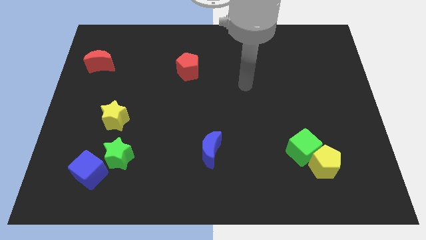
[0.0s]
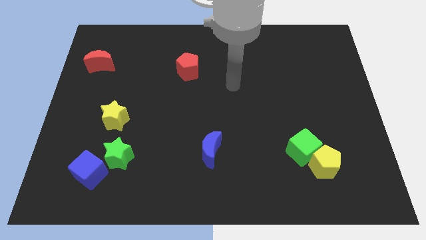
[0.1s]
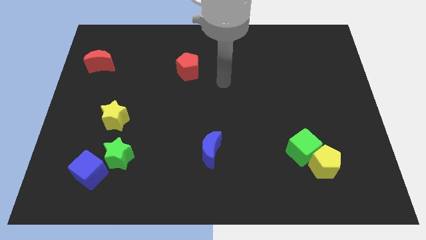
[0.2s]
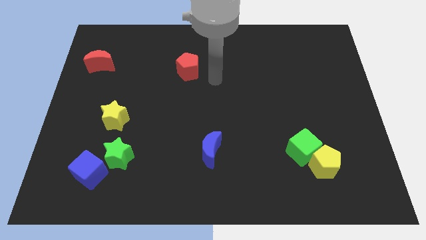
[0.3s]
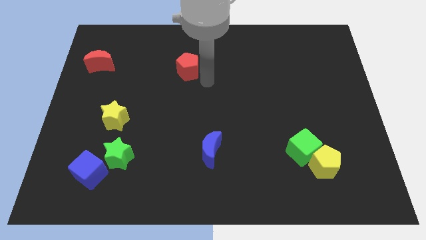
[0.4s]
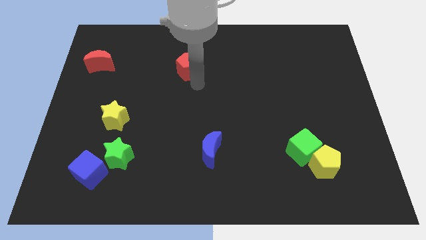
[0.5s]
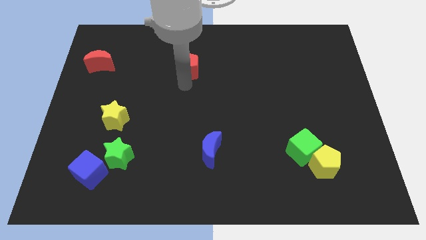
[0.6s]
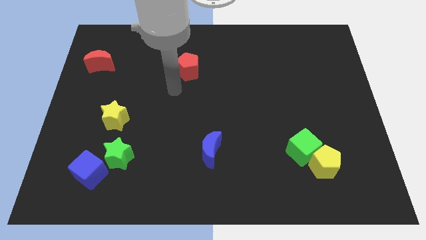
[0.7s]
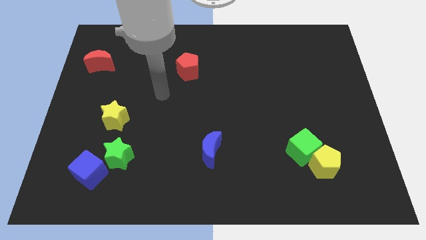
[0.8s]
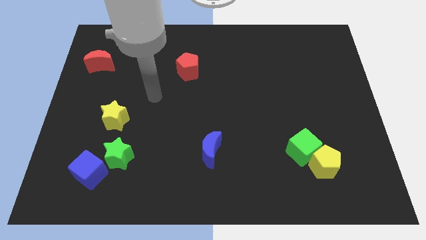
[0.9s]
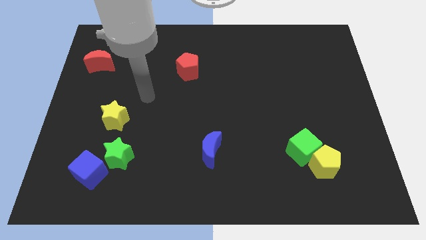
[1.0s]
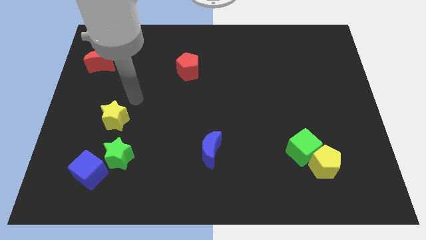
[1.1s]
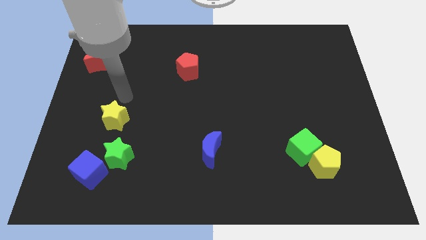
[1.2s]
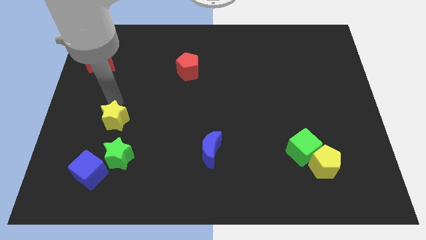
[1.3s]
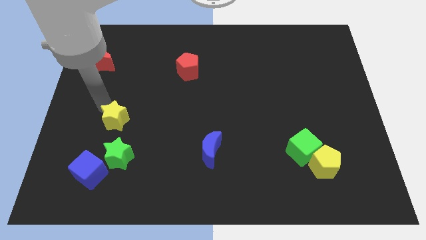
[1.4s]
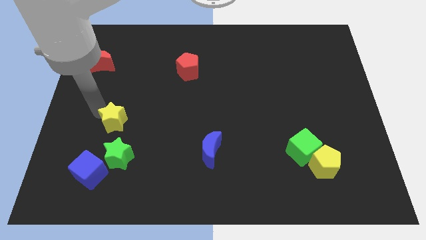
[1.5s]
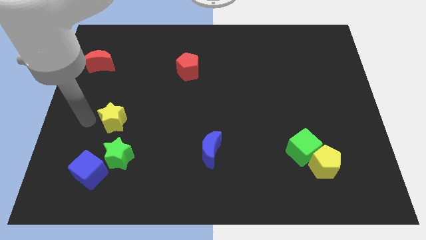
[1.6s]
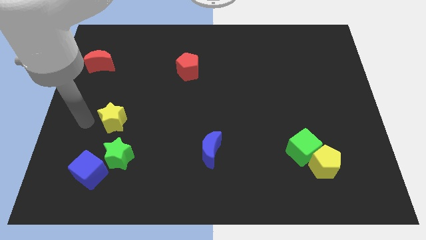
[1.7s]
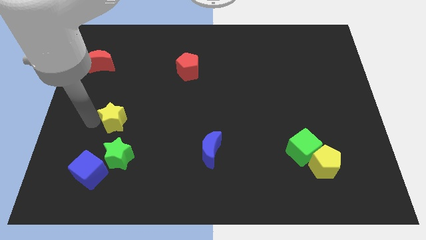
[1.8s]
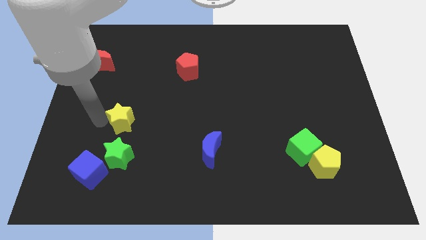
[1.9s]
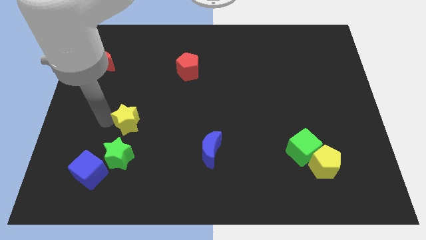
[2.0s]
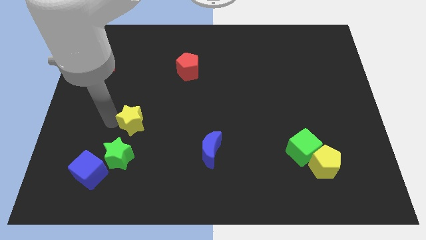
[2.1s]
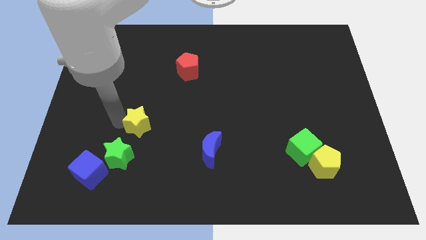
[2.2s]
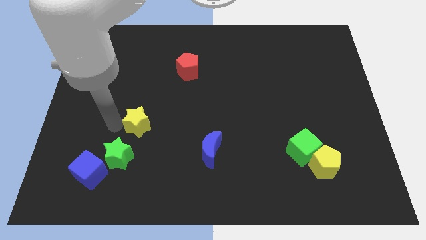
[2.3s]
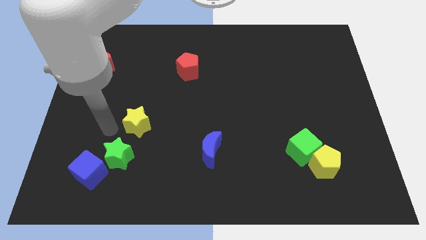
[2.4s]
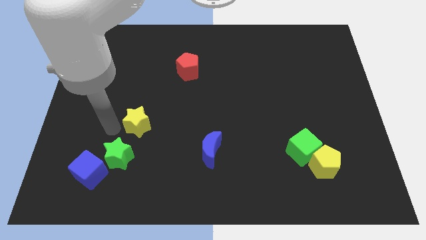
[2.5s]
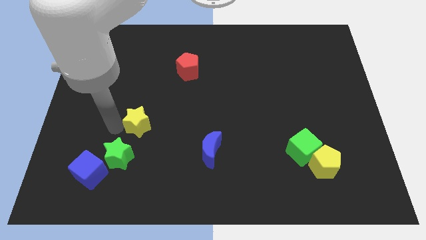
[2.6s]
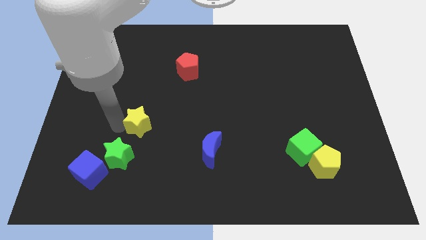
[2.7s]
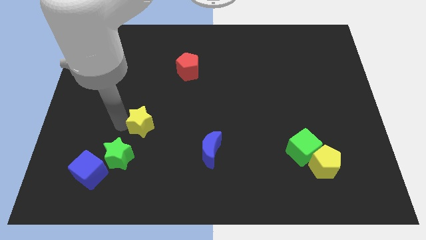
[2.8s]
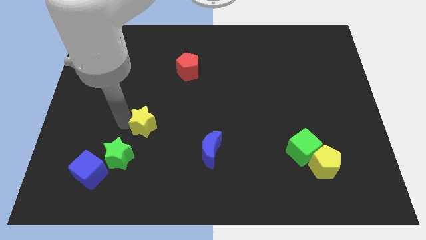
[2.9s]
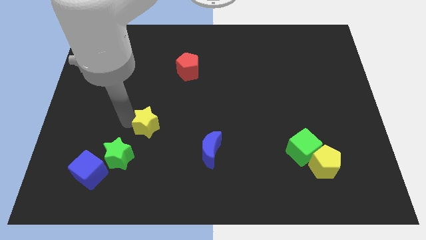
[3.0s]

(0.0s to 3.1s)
move the yellow star a little right

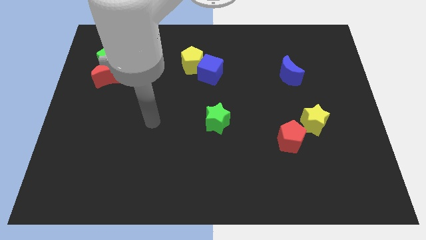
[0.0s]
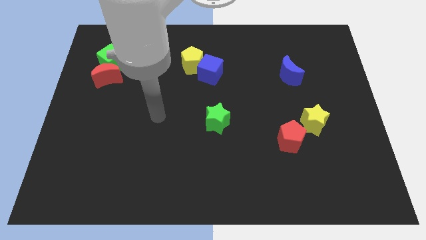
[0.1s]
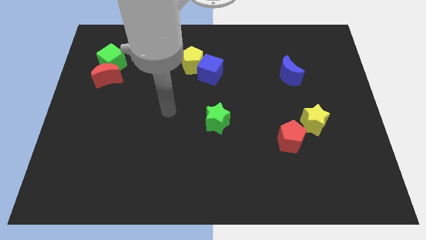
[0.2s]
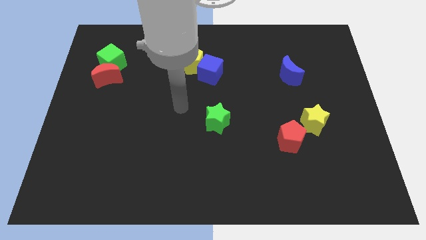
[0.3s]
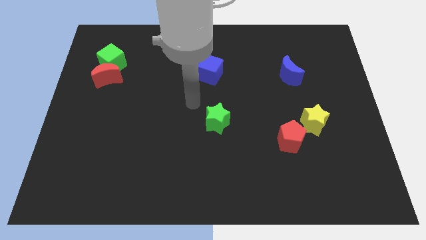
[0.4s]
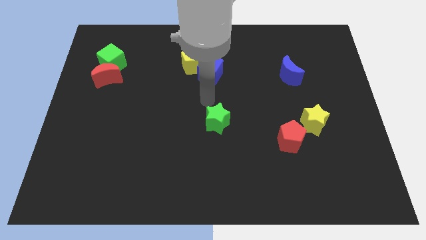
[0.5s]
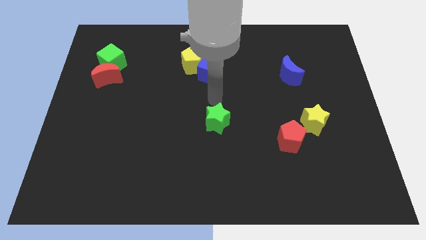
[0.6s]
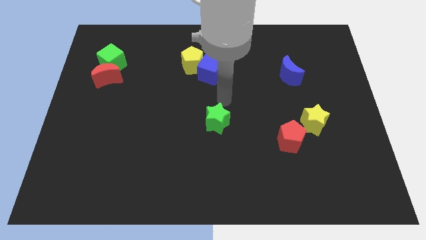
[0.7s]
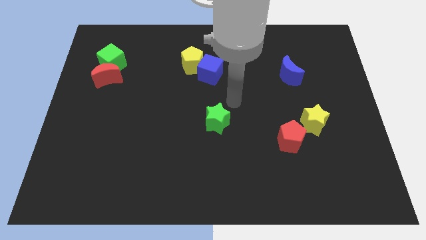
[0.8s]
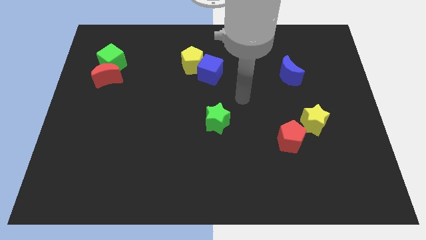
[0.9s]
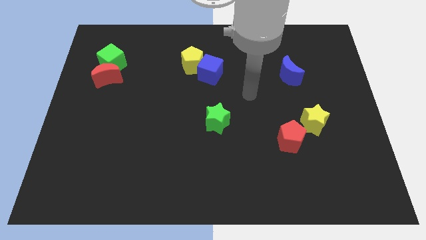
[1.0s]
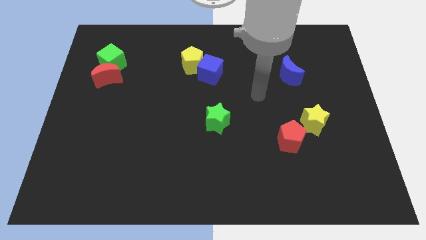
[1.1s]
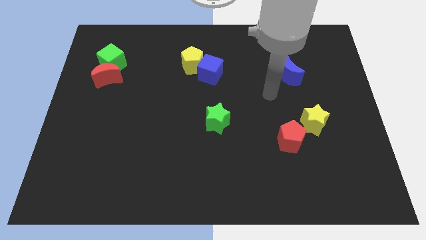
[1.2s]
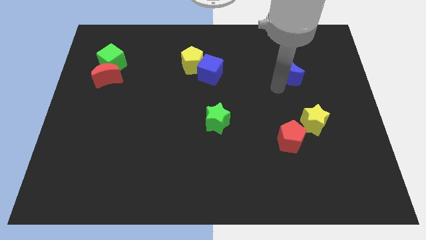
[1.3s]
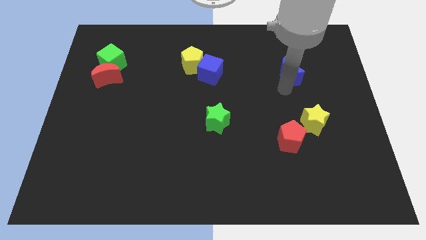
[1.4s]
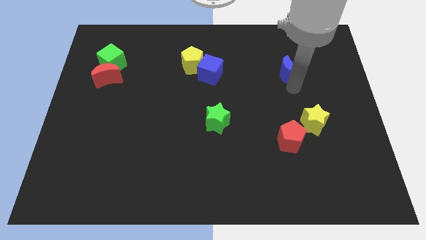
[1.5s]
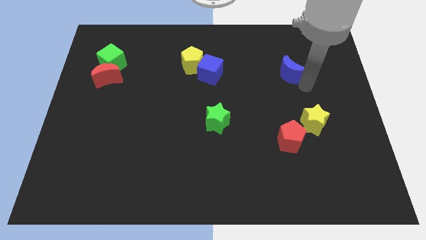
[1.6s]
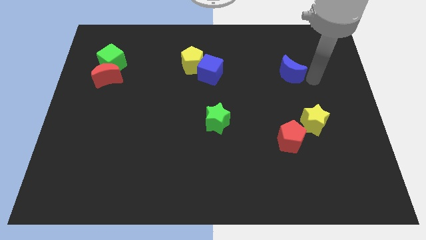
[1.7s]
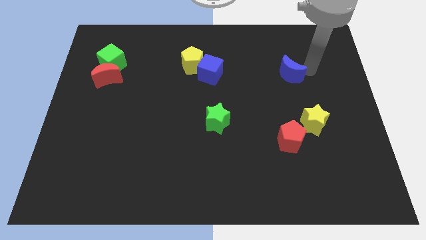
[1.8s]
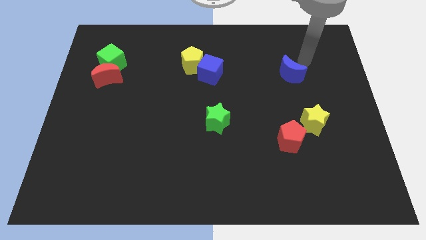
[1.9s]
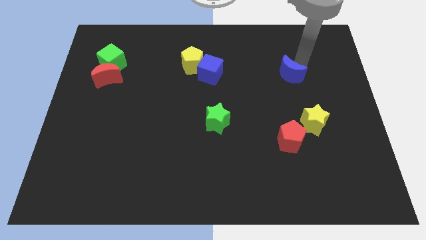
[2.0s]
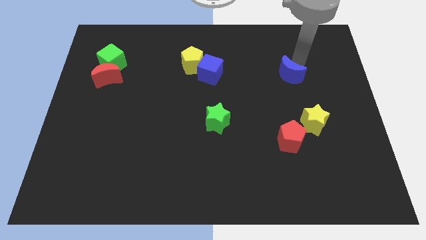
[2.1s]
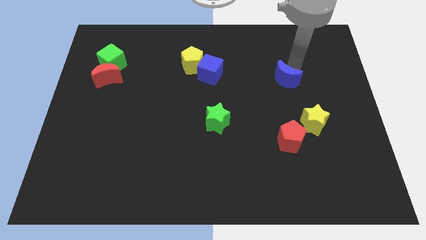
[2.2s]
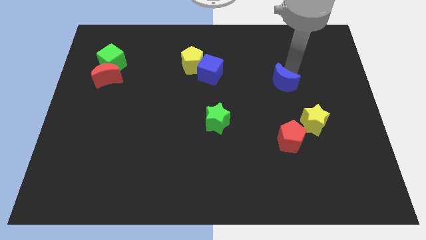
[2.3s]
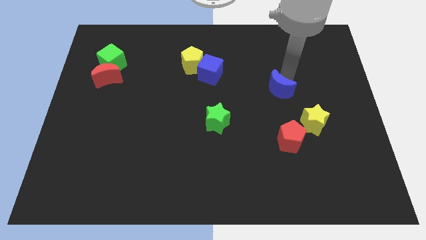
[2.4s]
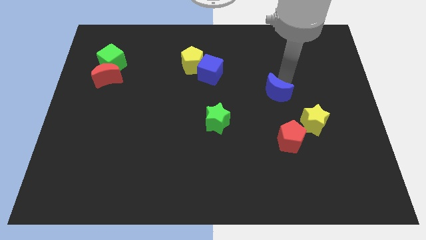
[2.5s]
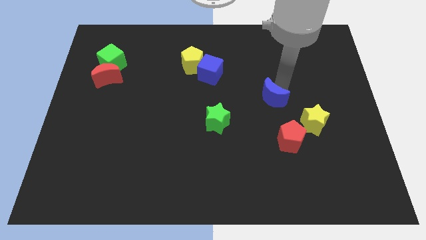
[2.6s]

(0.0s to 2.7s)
move the blue moon a bit downwards and to the left

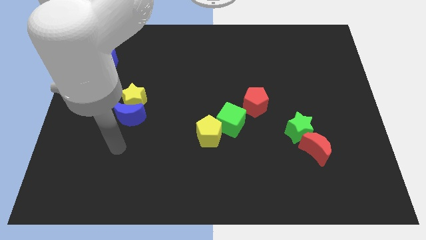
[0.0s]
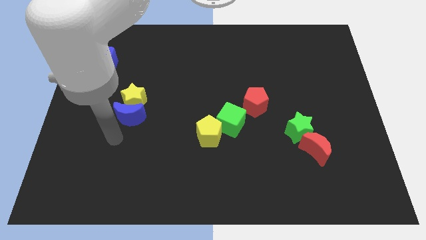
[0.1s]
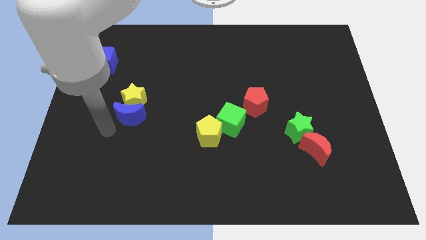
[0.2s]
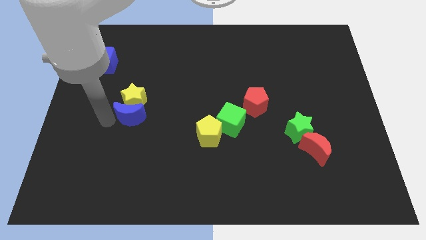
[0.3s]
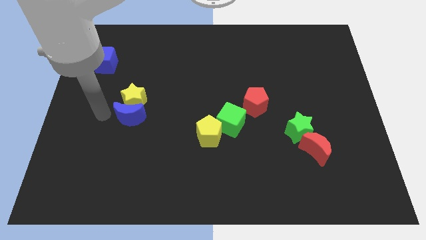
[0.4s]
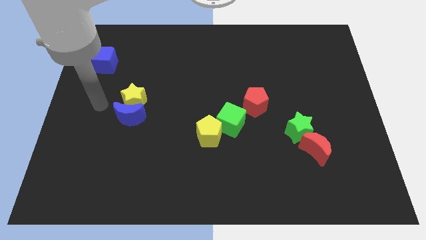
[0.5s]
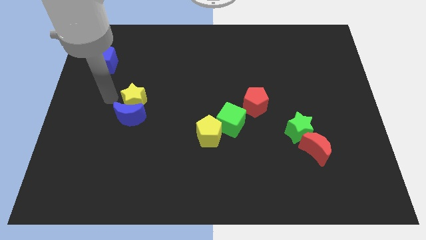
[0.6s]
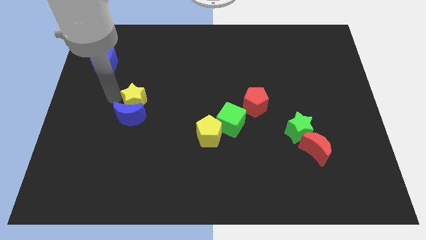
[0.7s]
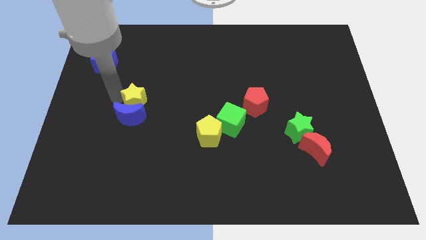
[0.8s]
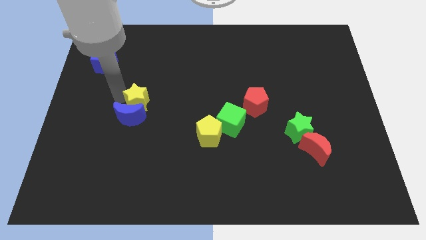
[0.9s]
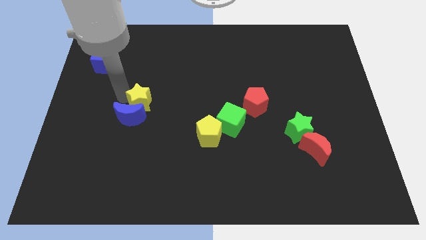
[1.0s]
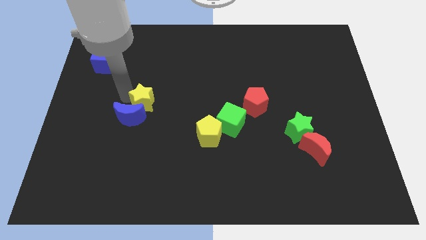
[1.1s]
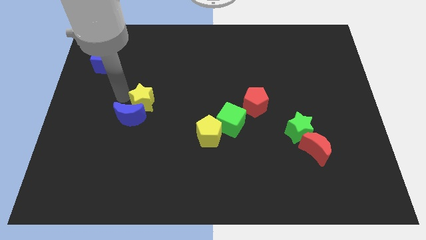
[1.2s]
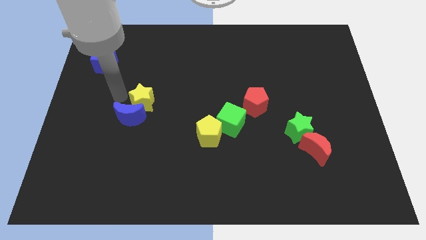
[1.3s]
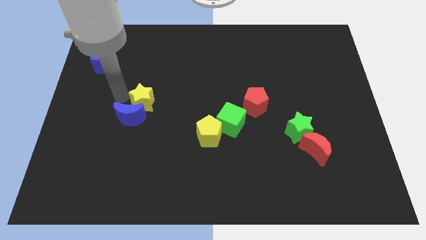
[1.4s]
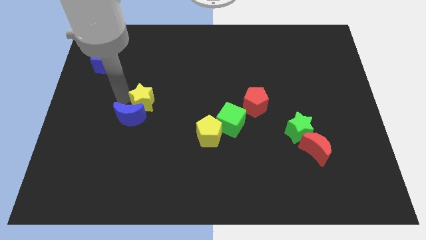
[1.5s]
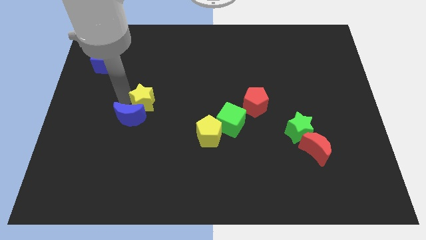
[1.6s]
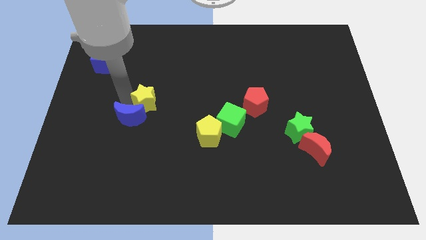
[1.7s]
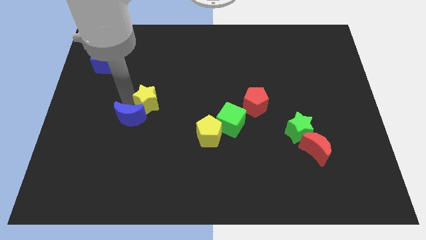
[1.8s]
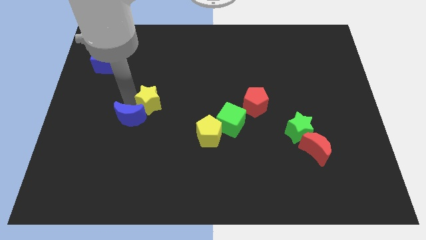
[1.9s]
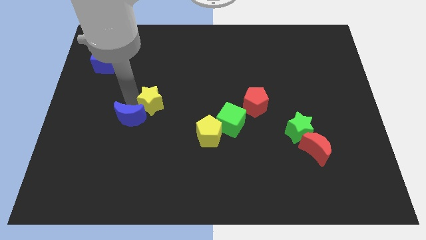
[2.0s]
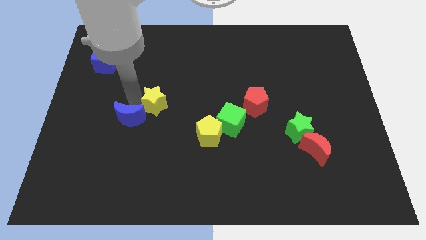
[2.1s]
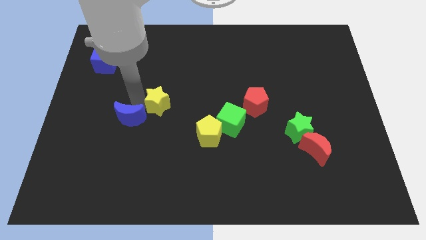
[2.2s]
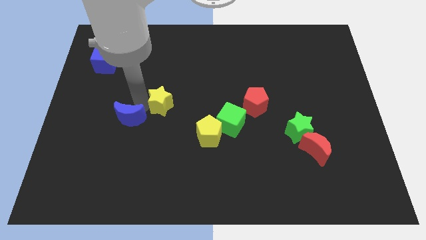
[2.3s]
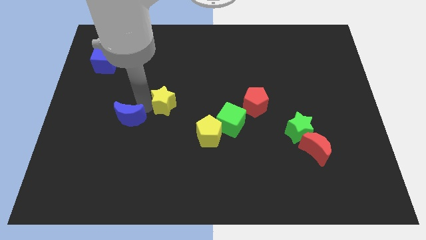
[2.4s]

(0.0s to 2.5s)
slightly move the yellow star to the right
